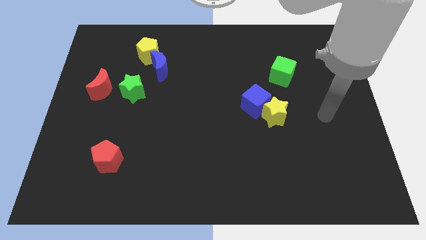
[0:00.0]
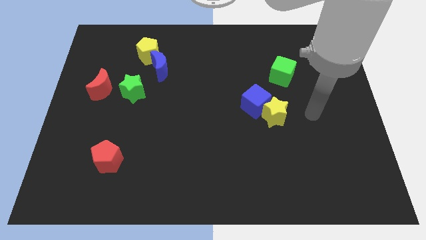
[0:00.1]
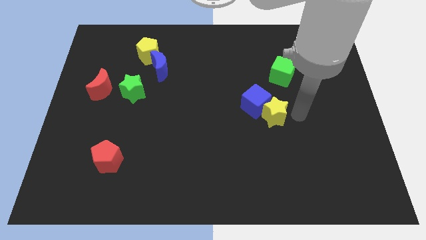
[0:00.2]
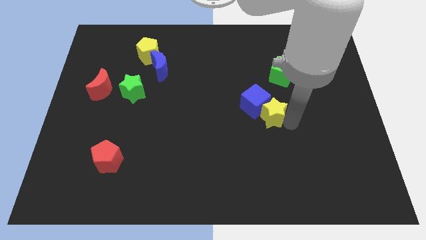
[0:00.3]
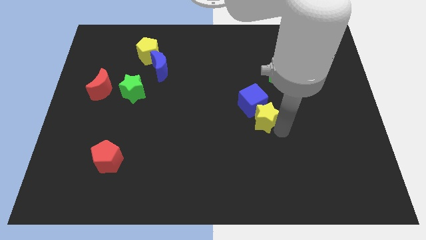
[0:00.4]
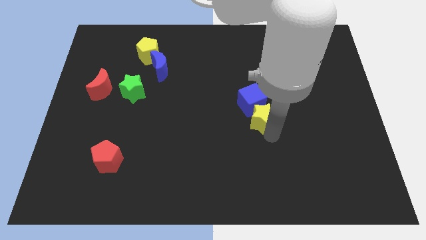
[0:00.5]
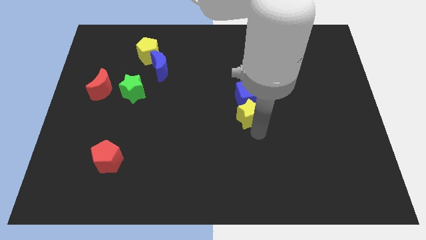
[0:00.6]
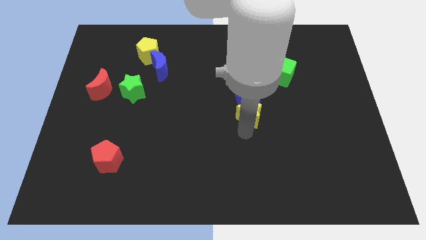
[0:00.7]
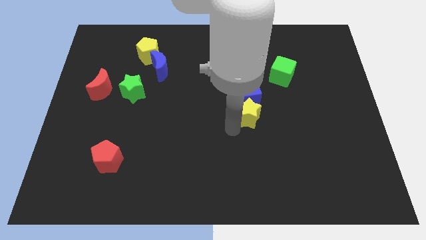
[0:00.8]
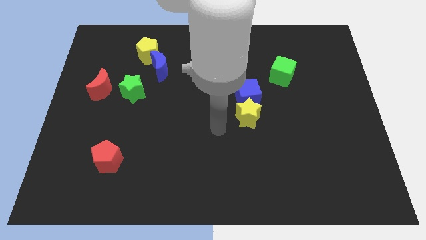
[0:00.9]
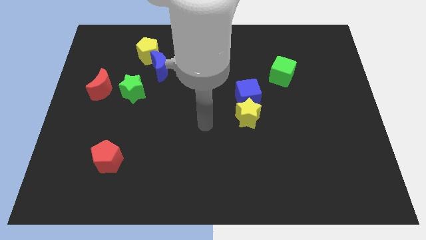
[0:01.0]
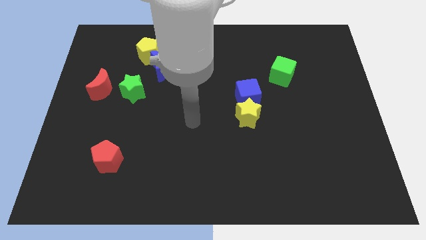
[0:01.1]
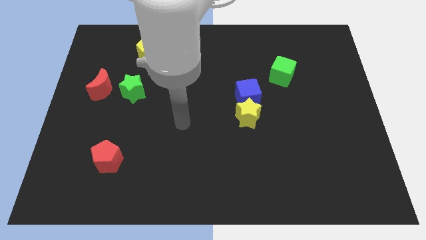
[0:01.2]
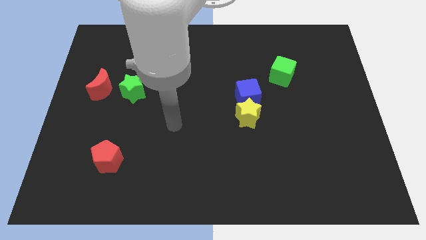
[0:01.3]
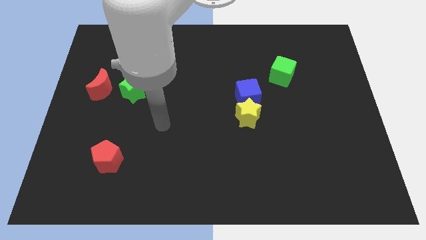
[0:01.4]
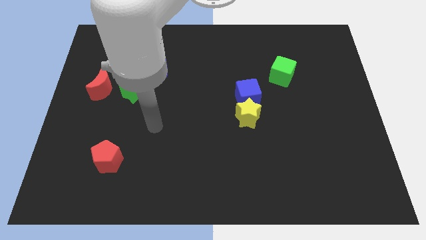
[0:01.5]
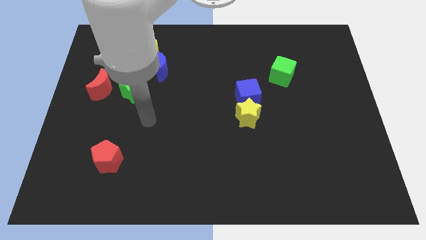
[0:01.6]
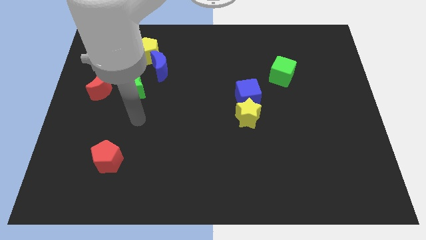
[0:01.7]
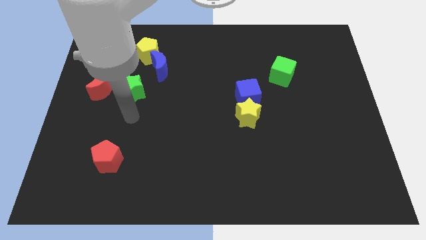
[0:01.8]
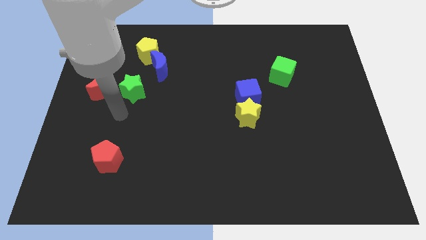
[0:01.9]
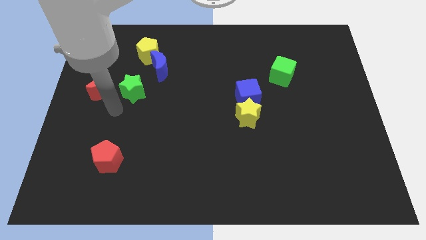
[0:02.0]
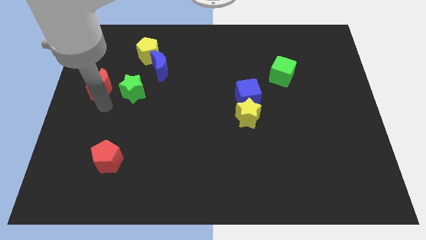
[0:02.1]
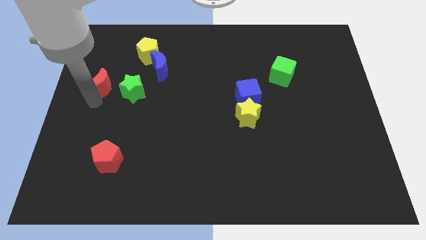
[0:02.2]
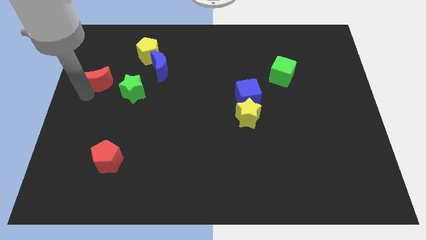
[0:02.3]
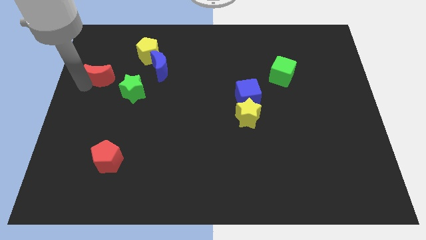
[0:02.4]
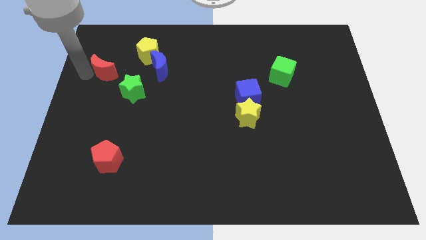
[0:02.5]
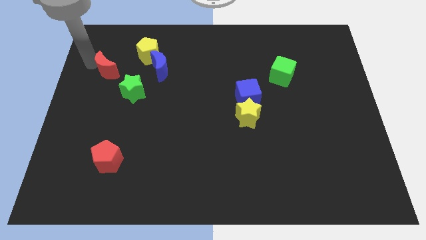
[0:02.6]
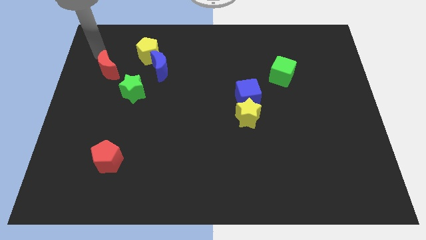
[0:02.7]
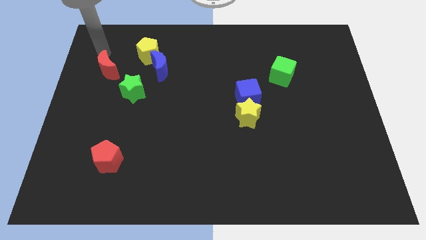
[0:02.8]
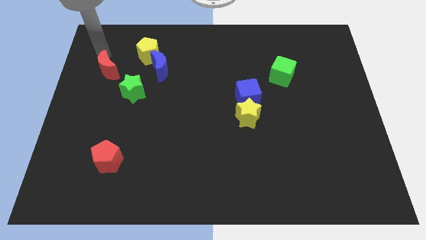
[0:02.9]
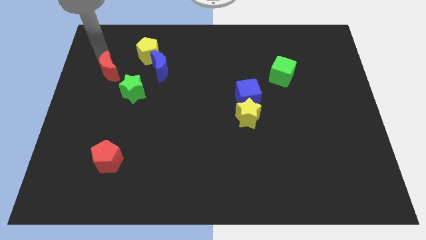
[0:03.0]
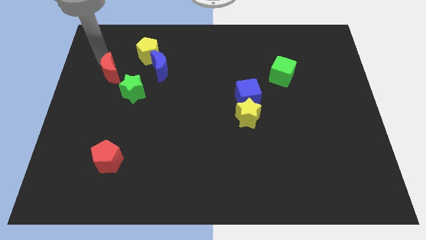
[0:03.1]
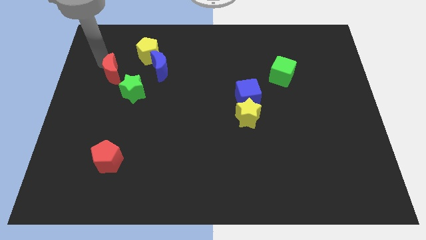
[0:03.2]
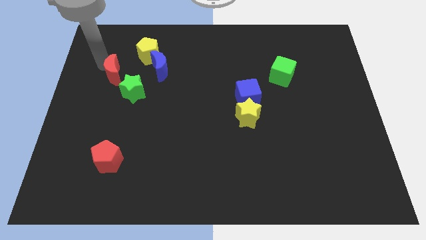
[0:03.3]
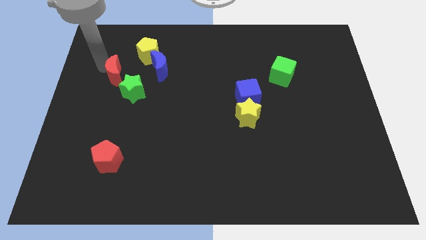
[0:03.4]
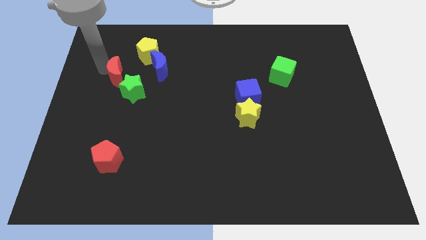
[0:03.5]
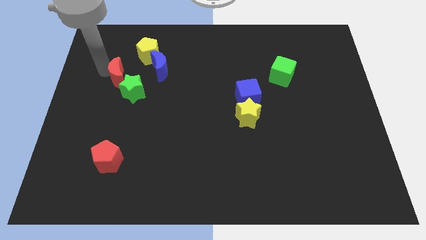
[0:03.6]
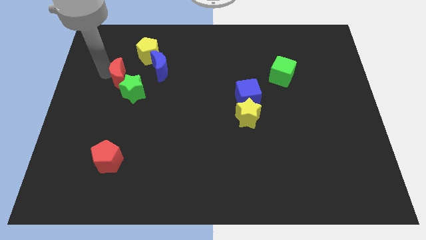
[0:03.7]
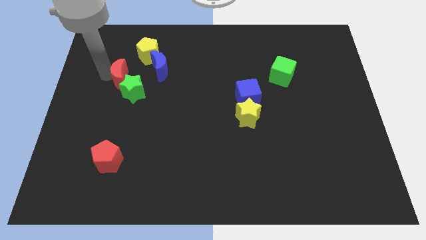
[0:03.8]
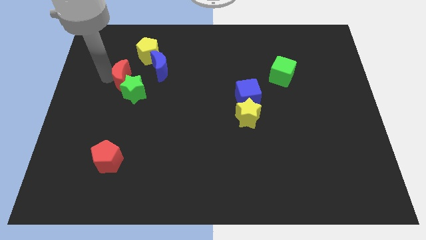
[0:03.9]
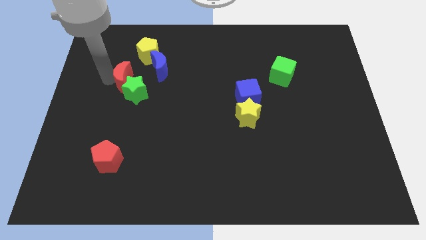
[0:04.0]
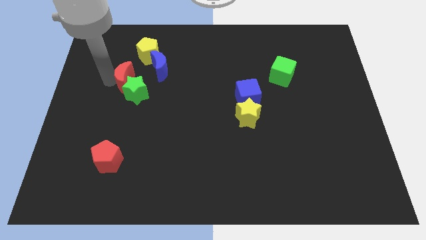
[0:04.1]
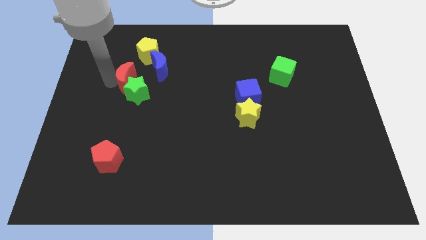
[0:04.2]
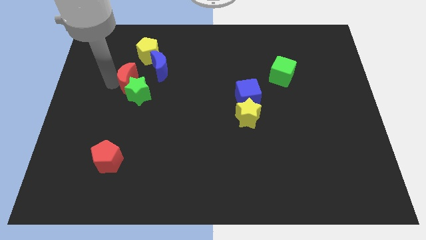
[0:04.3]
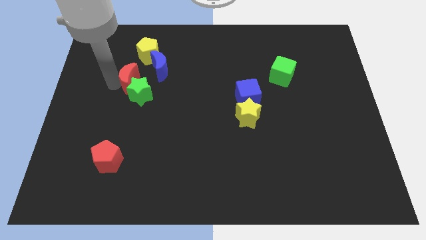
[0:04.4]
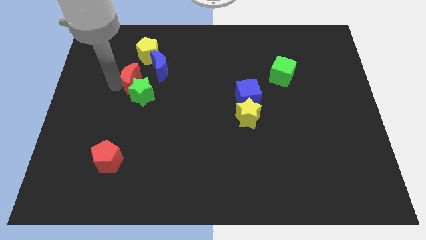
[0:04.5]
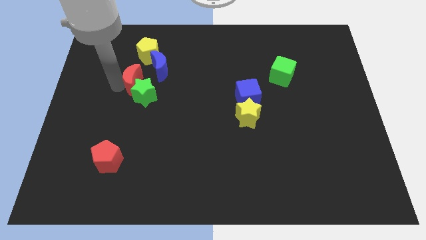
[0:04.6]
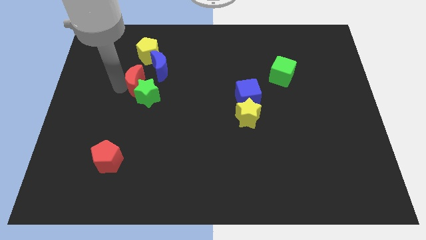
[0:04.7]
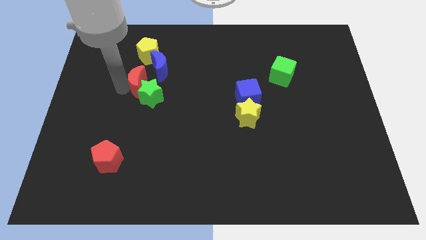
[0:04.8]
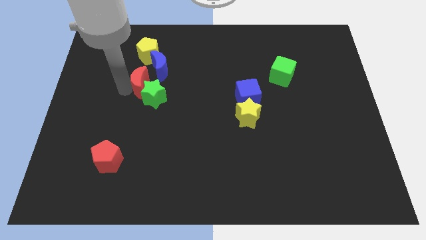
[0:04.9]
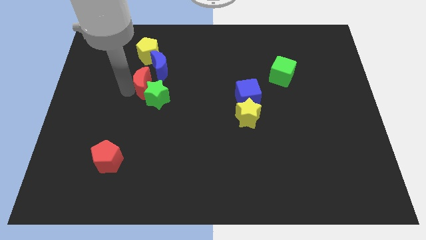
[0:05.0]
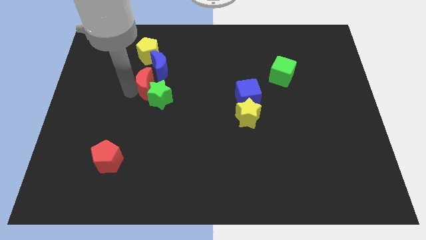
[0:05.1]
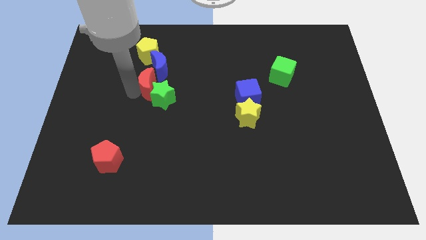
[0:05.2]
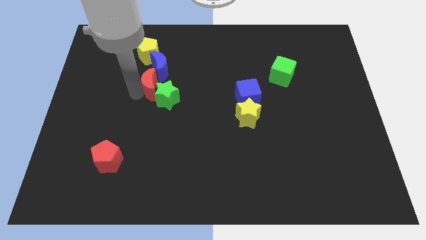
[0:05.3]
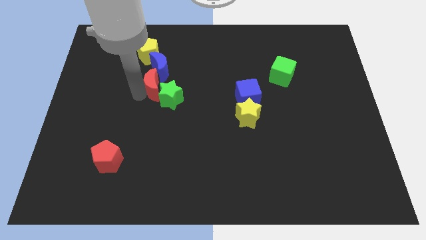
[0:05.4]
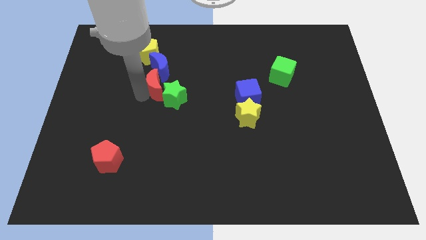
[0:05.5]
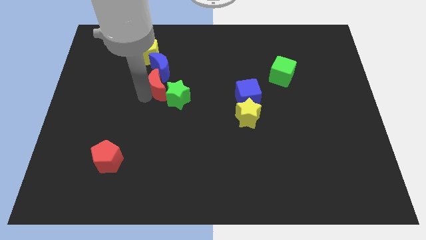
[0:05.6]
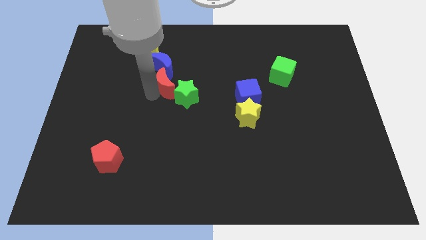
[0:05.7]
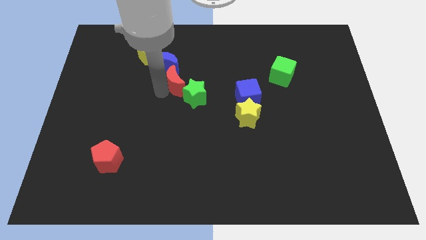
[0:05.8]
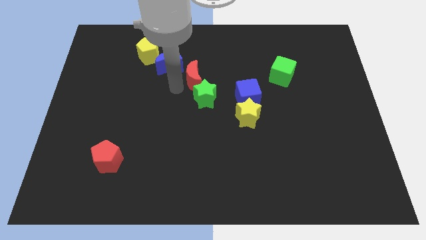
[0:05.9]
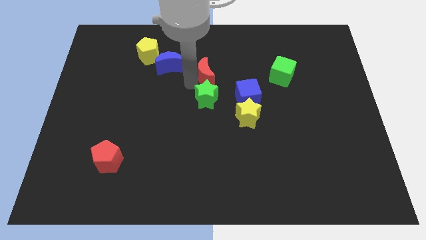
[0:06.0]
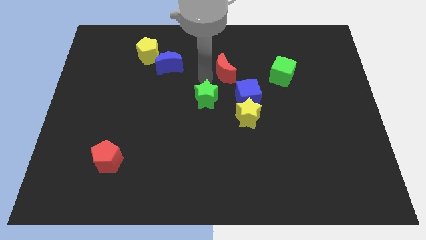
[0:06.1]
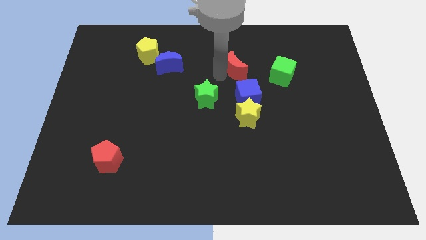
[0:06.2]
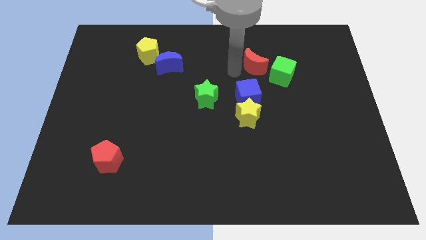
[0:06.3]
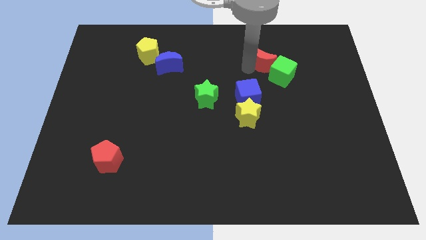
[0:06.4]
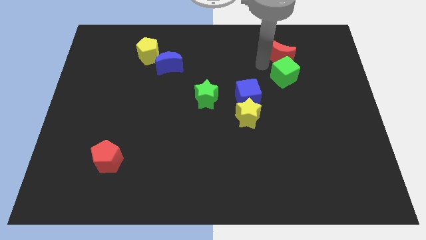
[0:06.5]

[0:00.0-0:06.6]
move the red moon to the top right of the green cube

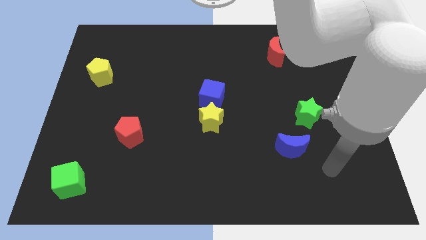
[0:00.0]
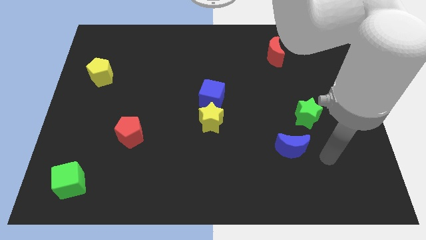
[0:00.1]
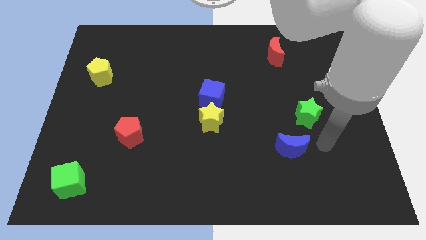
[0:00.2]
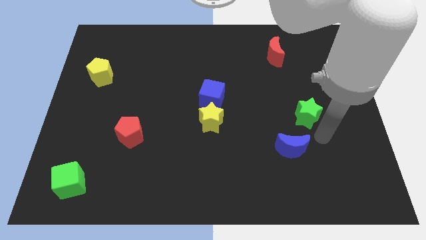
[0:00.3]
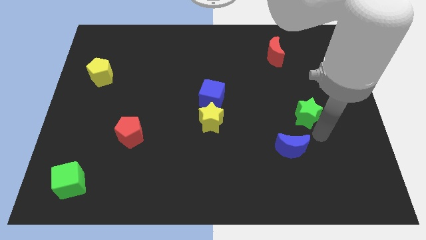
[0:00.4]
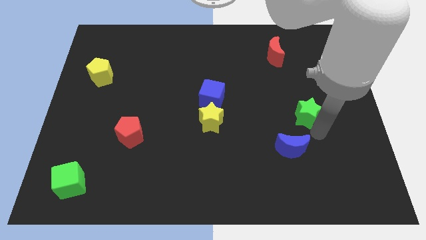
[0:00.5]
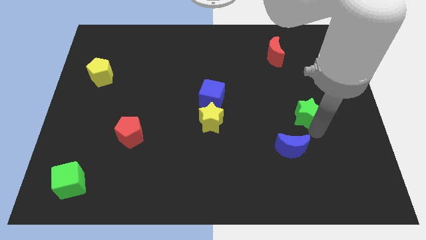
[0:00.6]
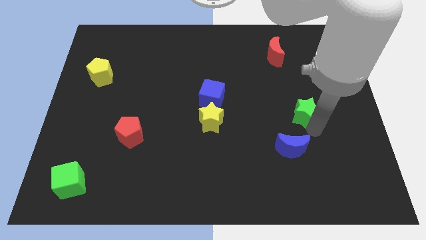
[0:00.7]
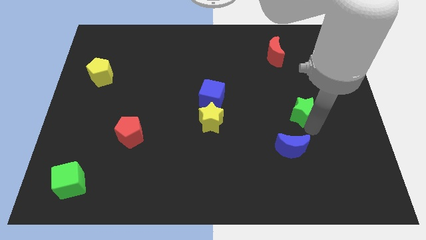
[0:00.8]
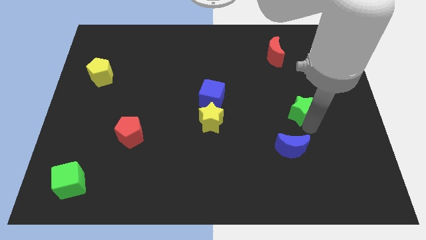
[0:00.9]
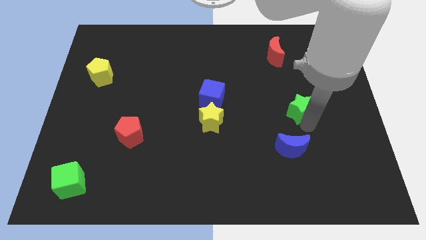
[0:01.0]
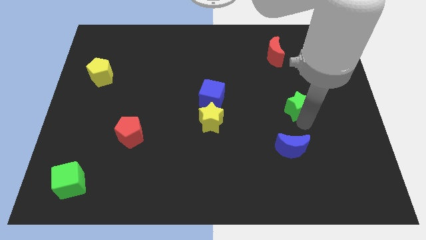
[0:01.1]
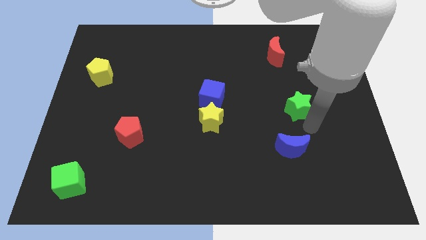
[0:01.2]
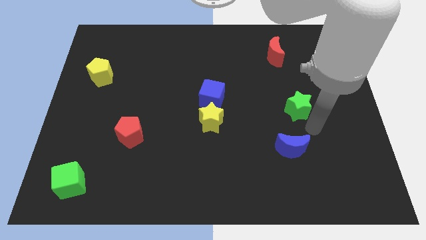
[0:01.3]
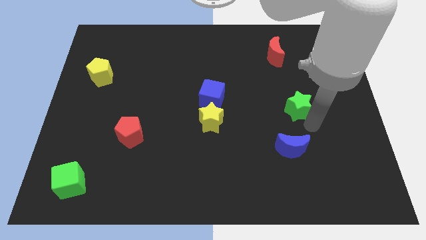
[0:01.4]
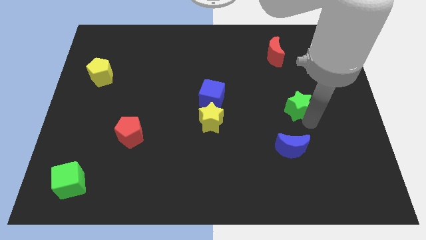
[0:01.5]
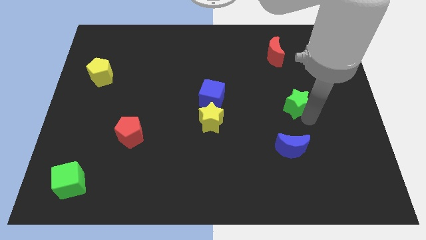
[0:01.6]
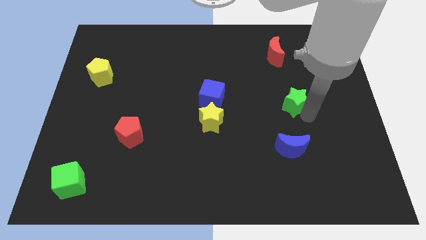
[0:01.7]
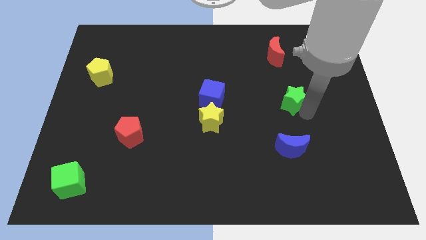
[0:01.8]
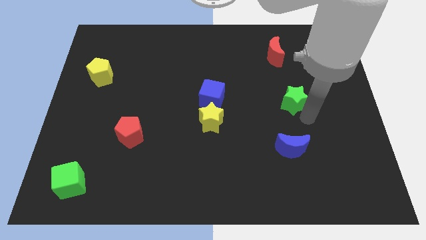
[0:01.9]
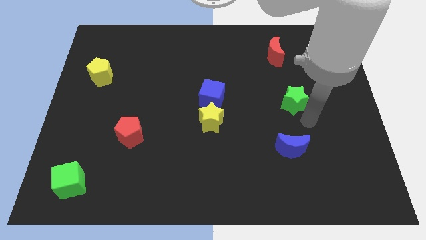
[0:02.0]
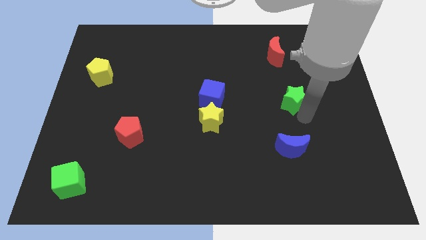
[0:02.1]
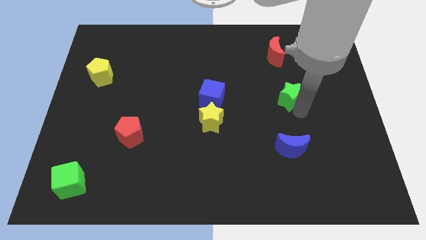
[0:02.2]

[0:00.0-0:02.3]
push the green star to the bottom of the red moon
